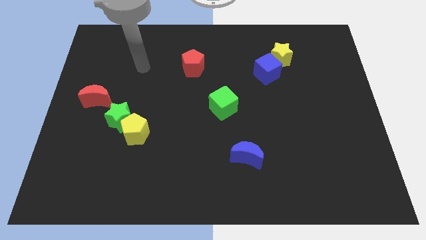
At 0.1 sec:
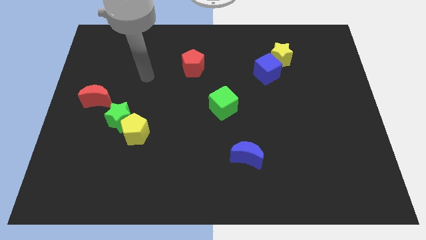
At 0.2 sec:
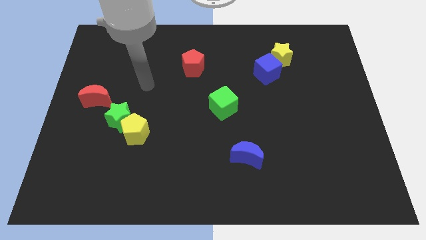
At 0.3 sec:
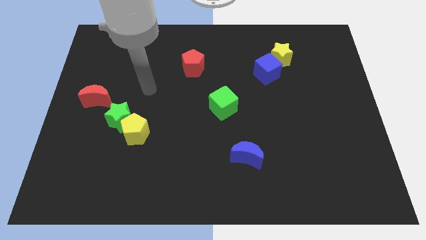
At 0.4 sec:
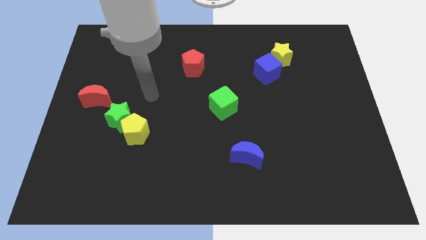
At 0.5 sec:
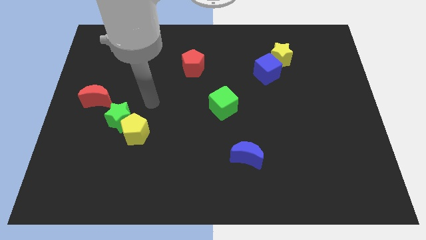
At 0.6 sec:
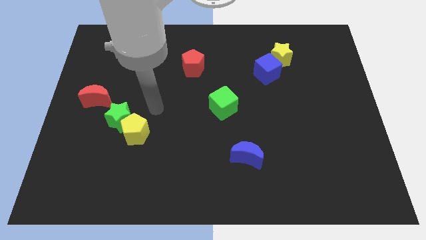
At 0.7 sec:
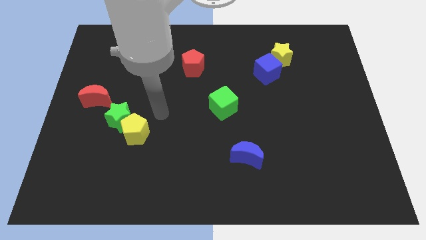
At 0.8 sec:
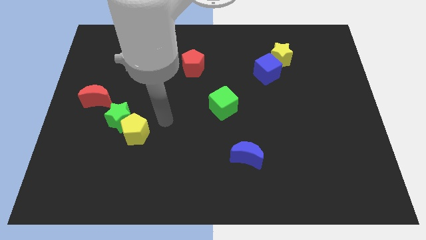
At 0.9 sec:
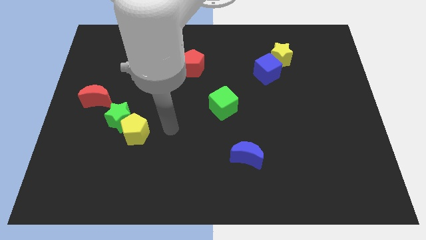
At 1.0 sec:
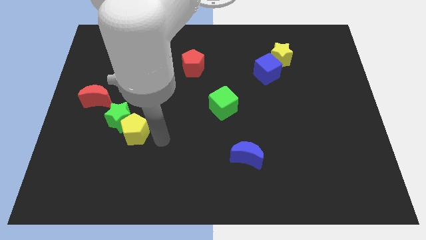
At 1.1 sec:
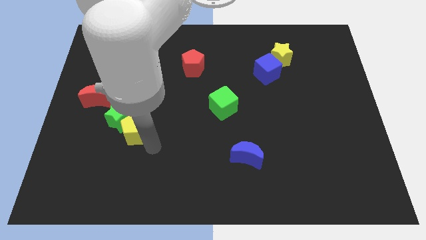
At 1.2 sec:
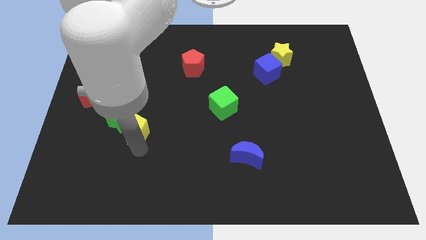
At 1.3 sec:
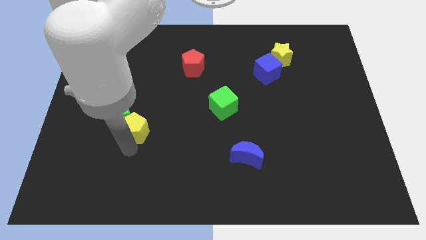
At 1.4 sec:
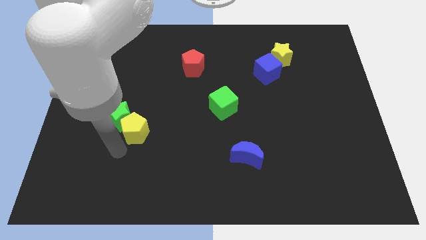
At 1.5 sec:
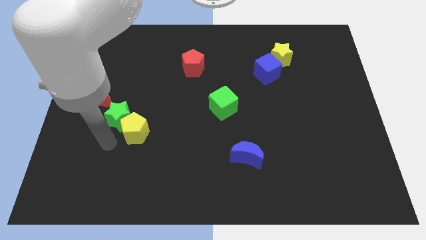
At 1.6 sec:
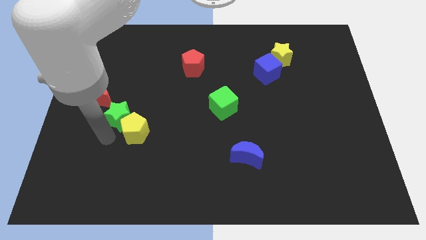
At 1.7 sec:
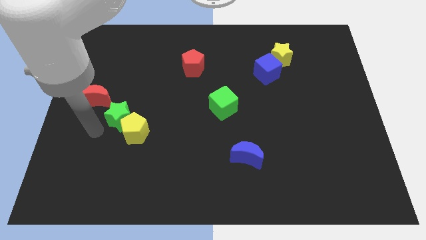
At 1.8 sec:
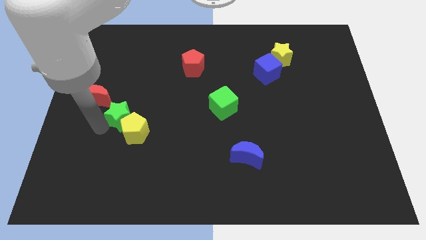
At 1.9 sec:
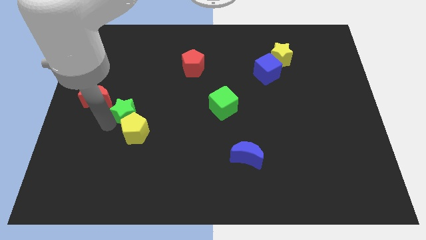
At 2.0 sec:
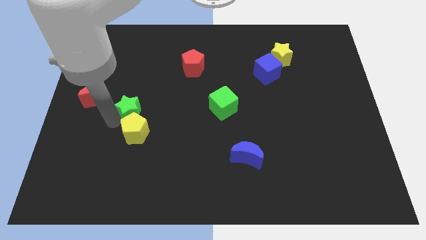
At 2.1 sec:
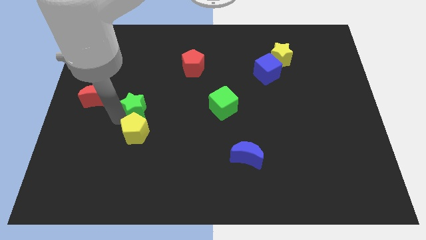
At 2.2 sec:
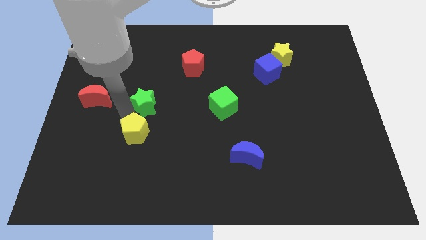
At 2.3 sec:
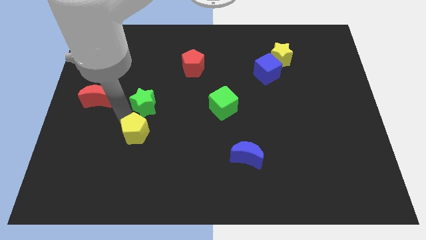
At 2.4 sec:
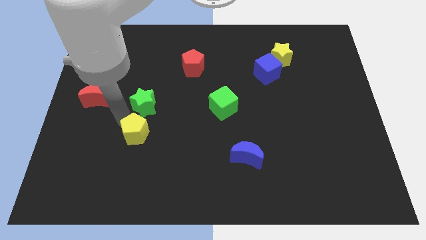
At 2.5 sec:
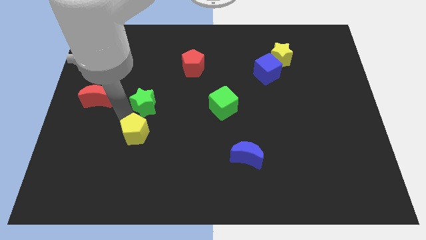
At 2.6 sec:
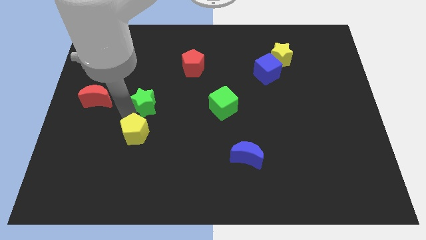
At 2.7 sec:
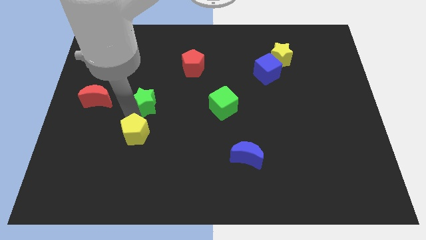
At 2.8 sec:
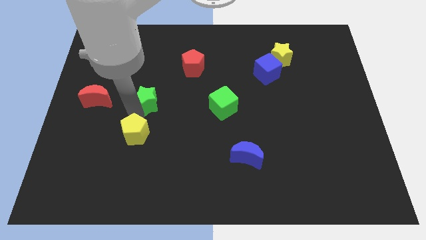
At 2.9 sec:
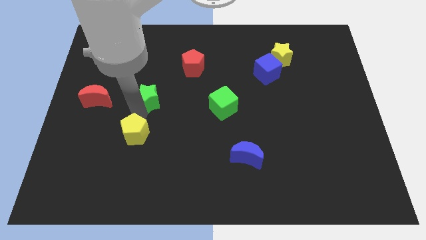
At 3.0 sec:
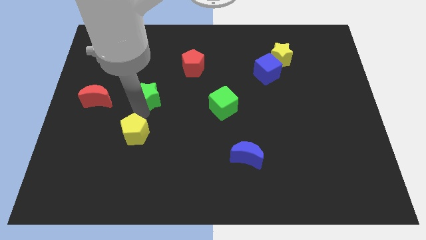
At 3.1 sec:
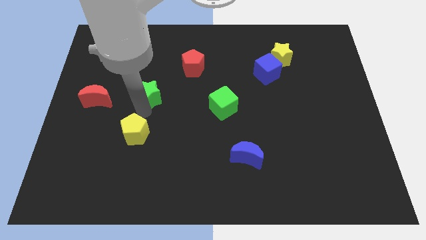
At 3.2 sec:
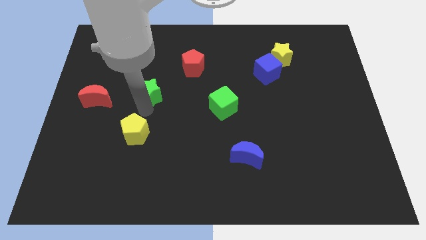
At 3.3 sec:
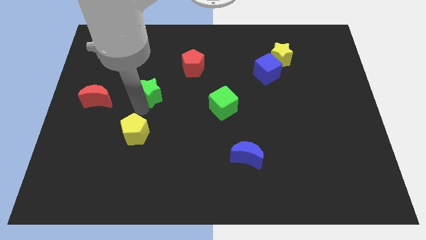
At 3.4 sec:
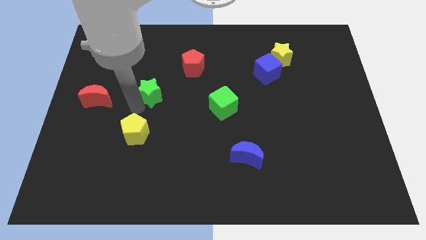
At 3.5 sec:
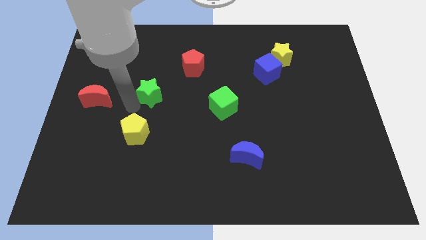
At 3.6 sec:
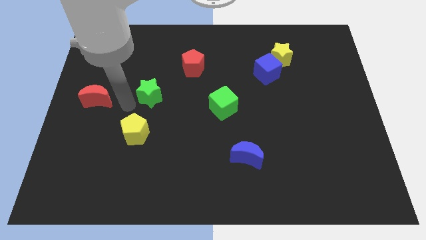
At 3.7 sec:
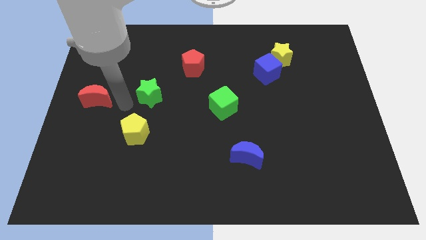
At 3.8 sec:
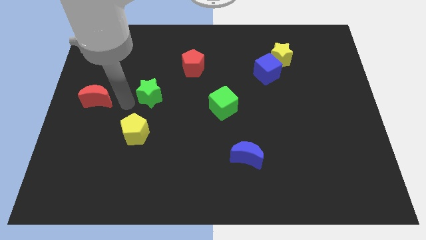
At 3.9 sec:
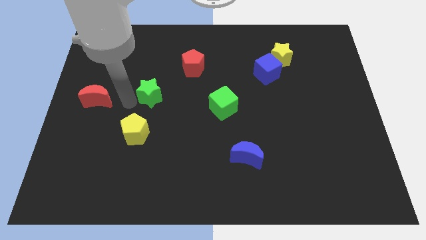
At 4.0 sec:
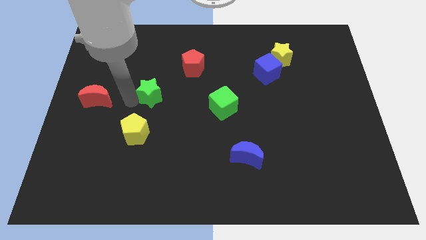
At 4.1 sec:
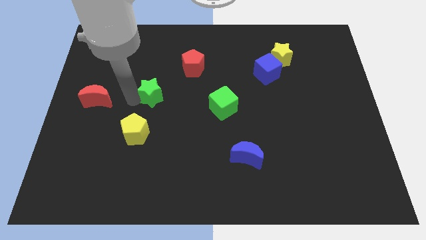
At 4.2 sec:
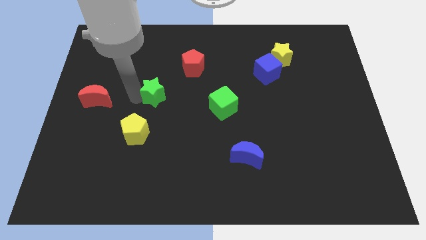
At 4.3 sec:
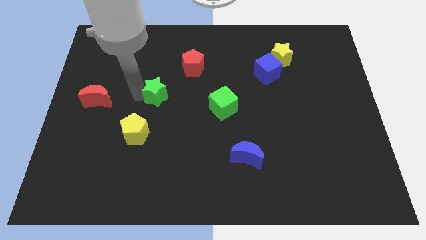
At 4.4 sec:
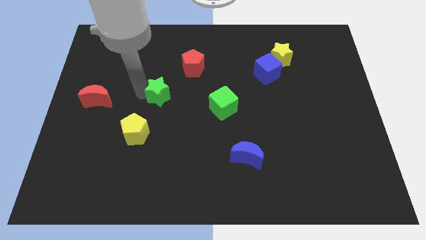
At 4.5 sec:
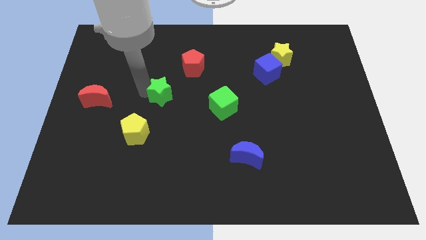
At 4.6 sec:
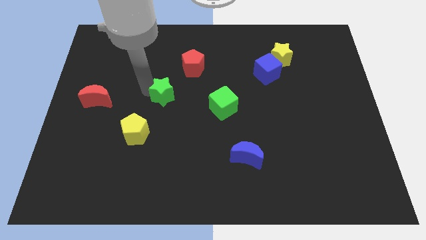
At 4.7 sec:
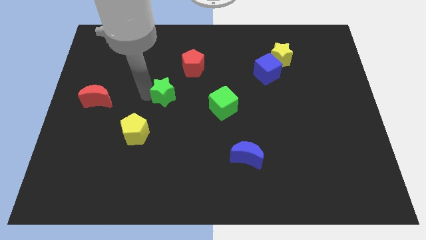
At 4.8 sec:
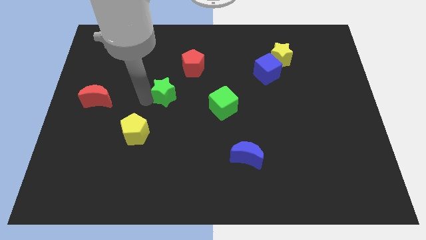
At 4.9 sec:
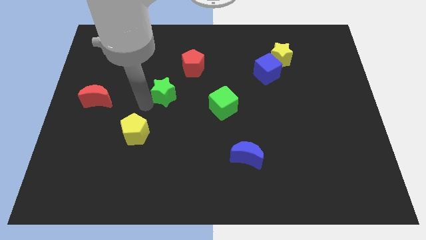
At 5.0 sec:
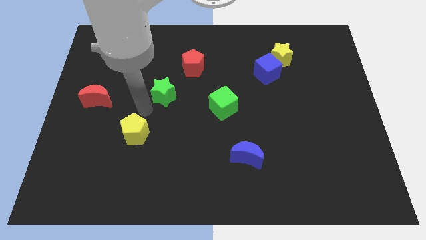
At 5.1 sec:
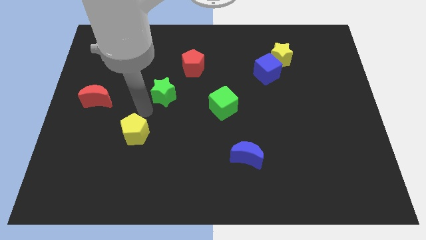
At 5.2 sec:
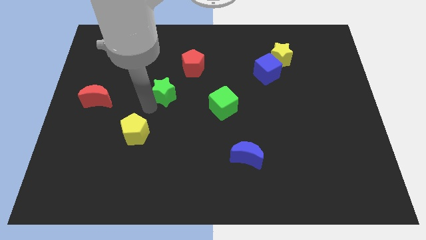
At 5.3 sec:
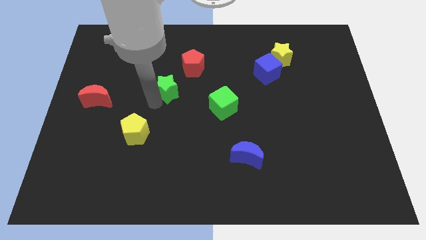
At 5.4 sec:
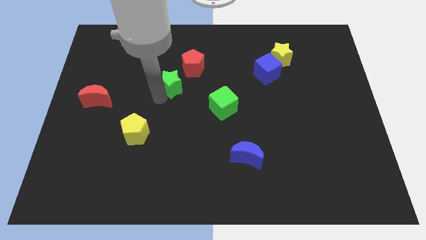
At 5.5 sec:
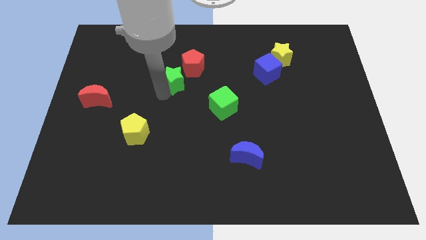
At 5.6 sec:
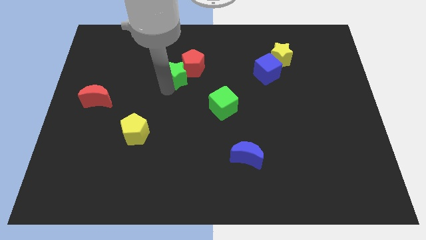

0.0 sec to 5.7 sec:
put the green star next to the red pentagon

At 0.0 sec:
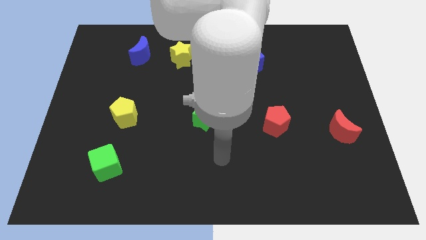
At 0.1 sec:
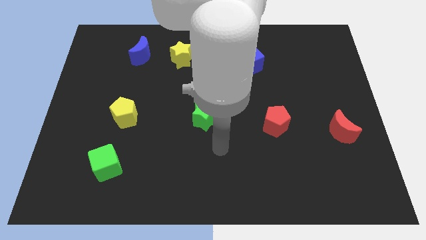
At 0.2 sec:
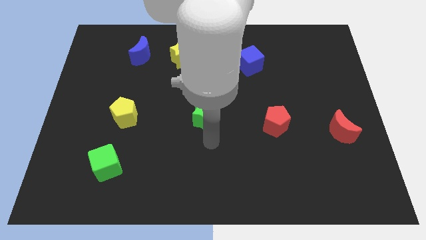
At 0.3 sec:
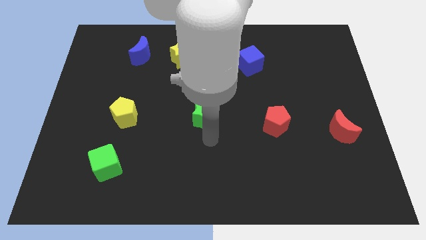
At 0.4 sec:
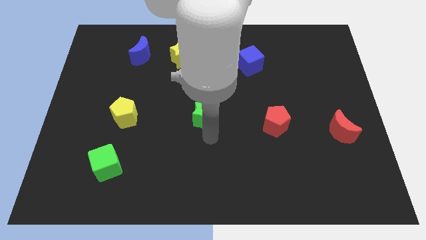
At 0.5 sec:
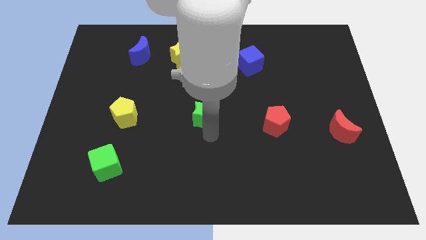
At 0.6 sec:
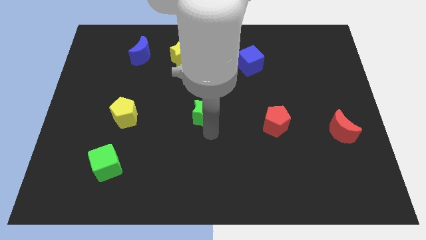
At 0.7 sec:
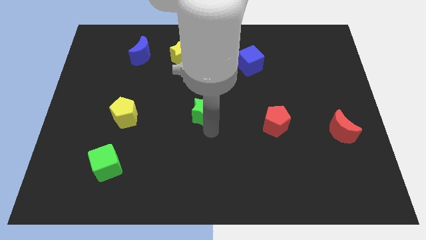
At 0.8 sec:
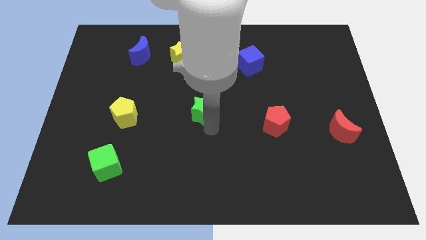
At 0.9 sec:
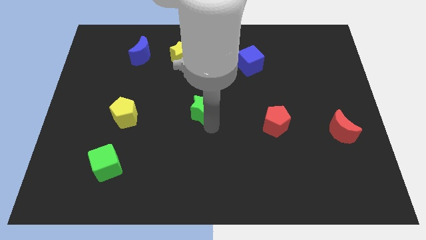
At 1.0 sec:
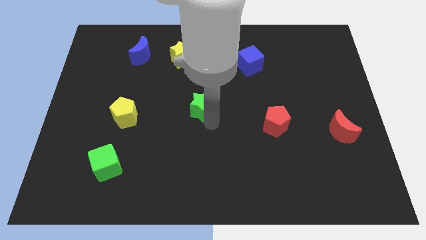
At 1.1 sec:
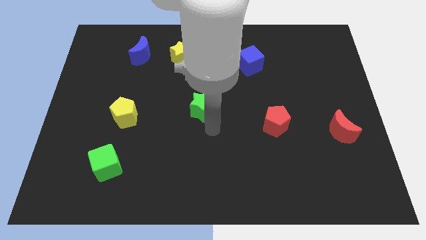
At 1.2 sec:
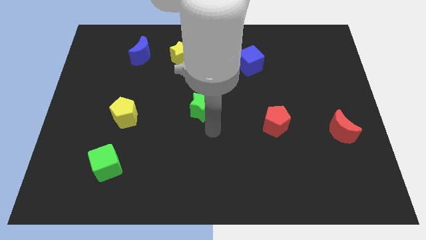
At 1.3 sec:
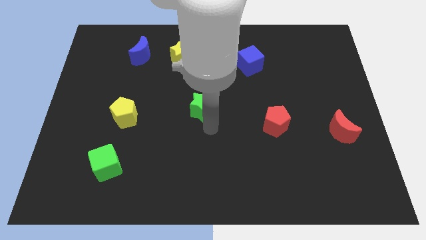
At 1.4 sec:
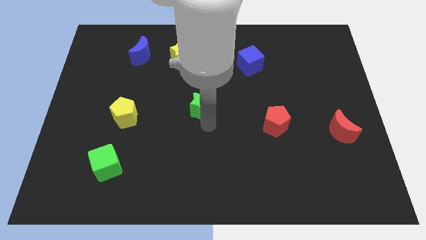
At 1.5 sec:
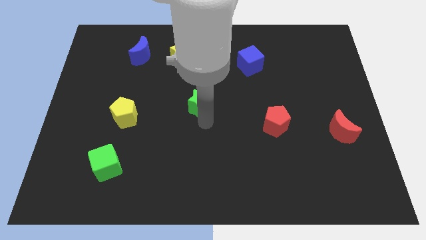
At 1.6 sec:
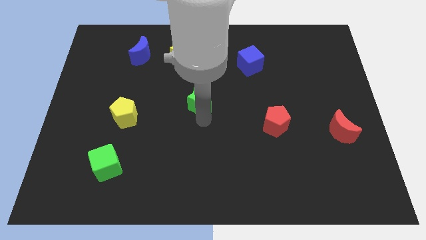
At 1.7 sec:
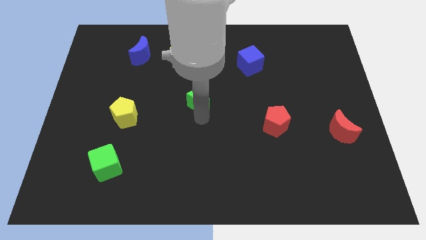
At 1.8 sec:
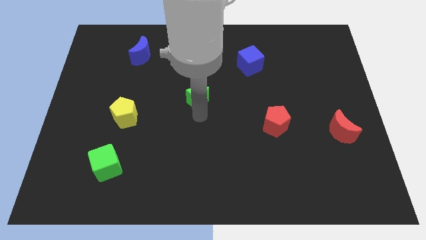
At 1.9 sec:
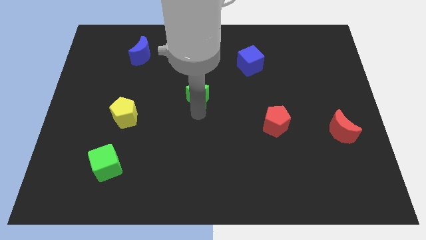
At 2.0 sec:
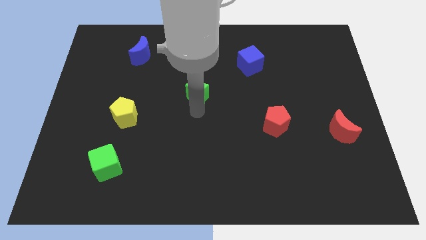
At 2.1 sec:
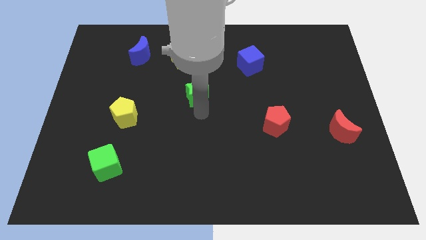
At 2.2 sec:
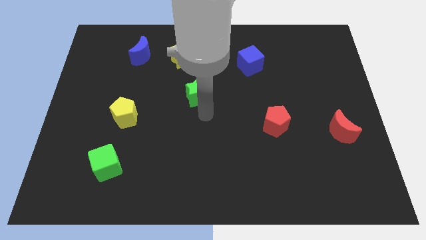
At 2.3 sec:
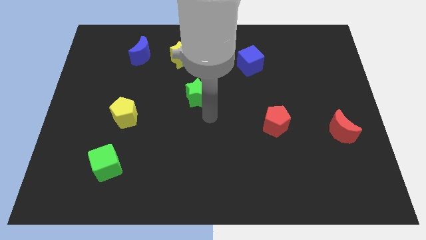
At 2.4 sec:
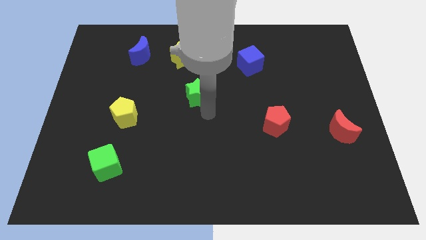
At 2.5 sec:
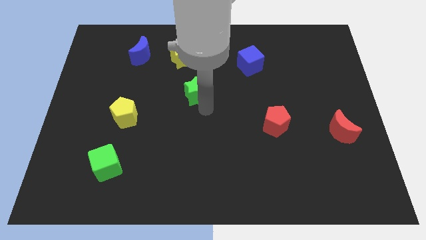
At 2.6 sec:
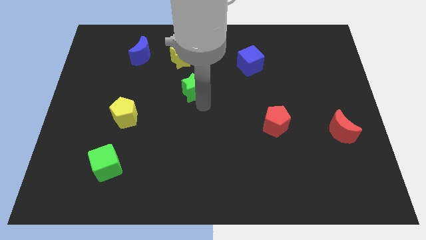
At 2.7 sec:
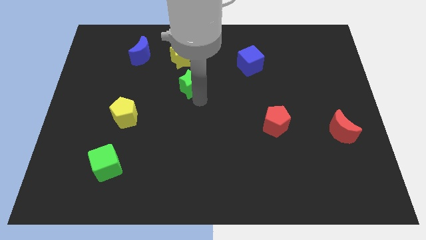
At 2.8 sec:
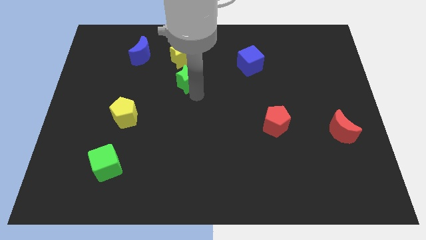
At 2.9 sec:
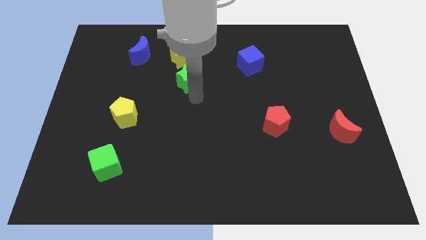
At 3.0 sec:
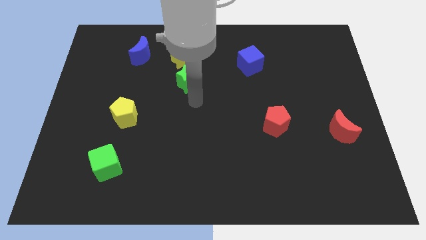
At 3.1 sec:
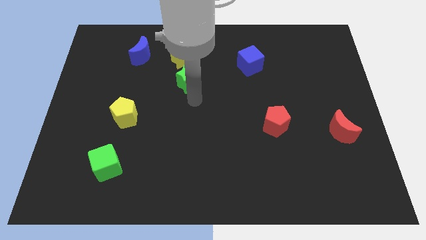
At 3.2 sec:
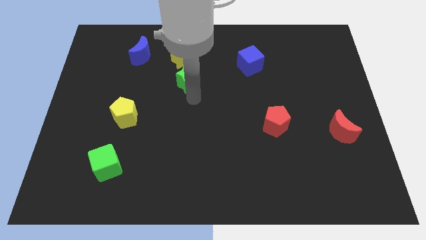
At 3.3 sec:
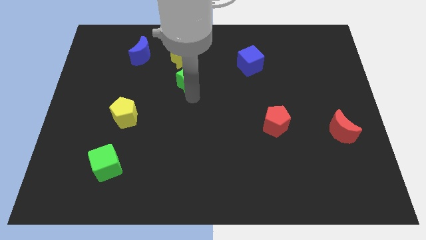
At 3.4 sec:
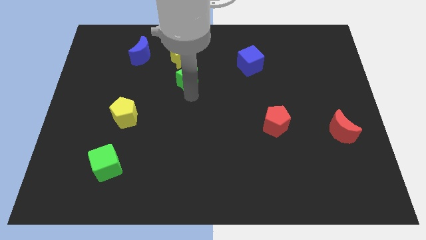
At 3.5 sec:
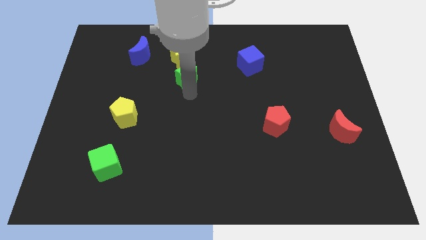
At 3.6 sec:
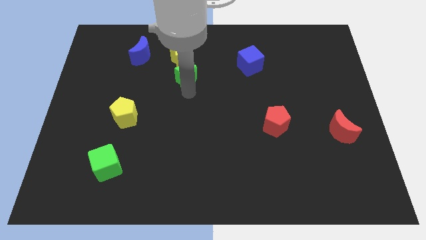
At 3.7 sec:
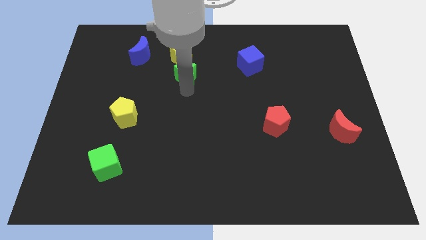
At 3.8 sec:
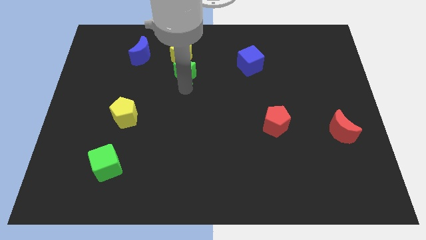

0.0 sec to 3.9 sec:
move the green star to the yellow star
